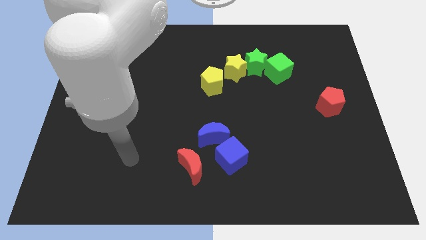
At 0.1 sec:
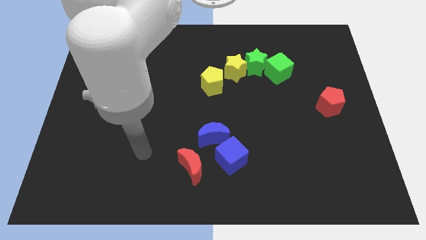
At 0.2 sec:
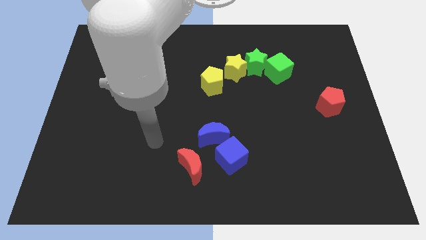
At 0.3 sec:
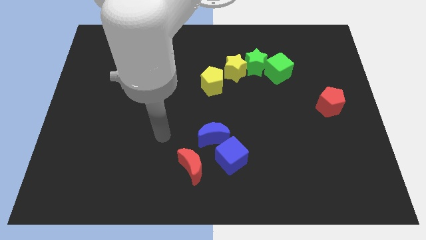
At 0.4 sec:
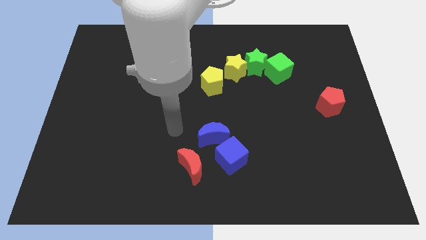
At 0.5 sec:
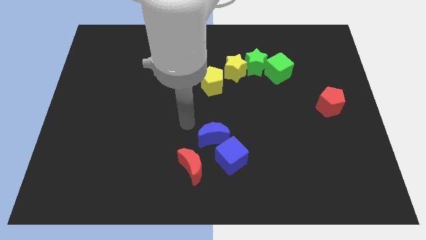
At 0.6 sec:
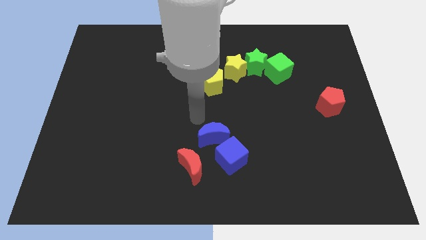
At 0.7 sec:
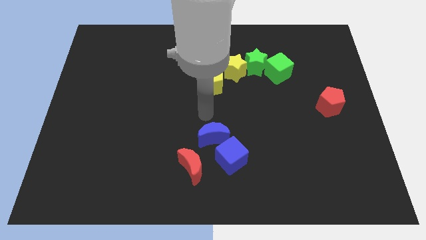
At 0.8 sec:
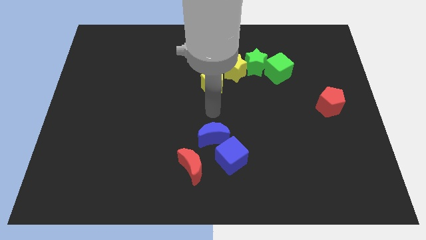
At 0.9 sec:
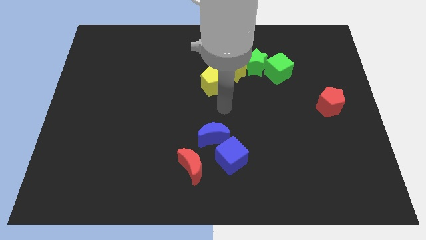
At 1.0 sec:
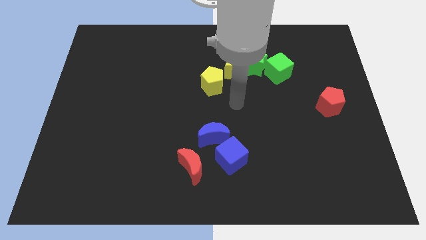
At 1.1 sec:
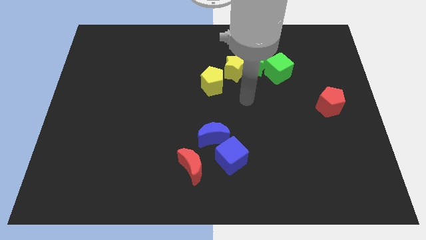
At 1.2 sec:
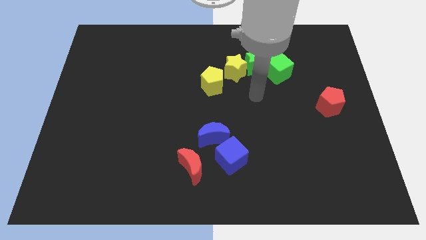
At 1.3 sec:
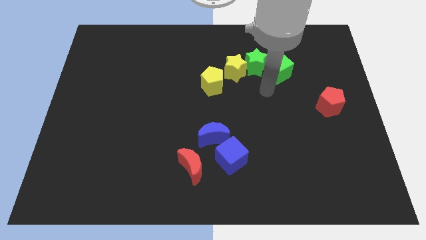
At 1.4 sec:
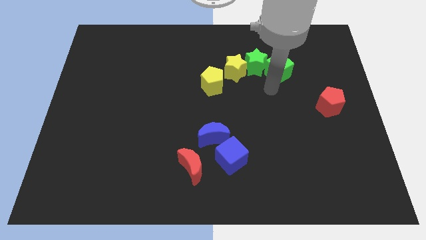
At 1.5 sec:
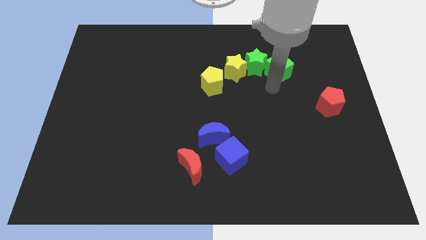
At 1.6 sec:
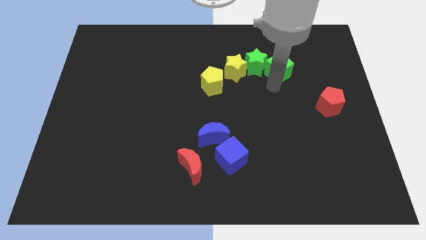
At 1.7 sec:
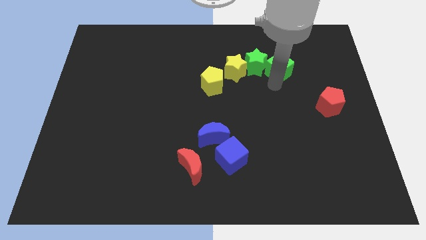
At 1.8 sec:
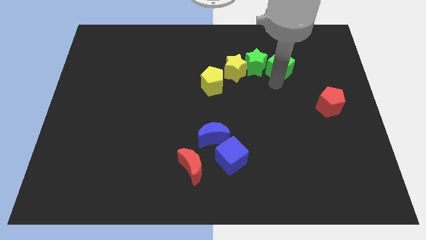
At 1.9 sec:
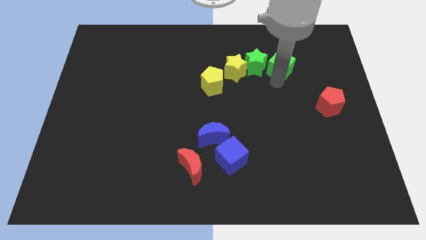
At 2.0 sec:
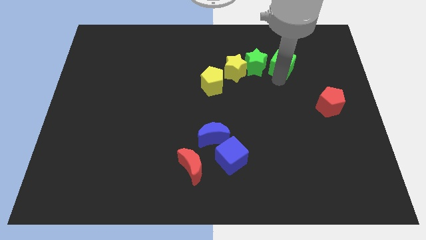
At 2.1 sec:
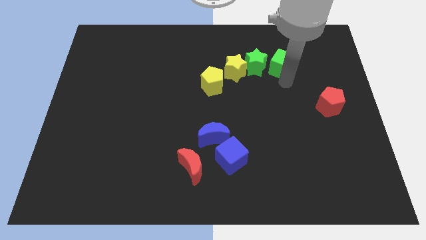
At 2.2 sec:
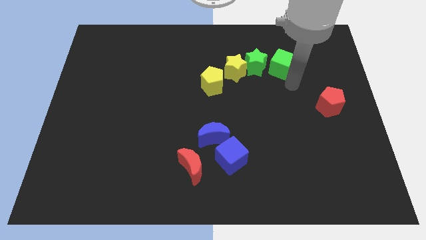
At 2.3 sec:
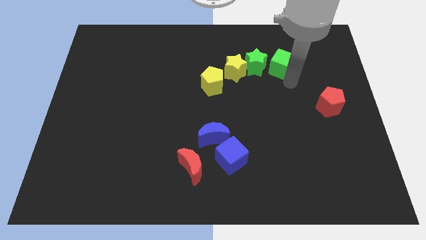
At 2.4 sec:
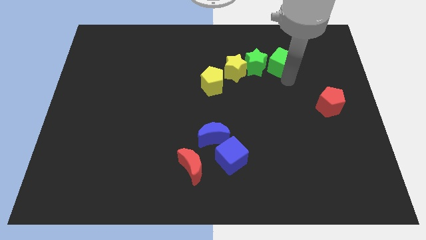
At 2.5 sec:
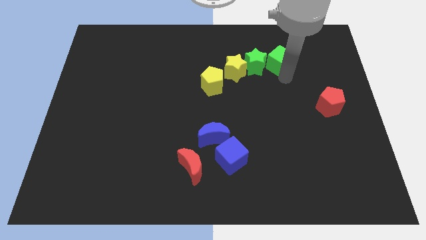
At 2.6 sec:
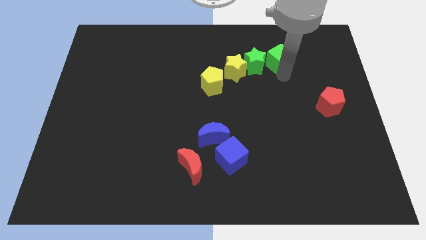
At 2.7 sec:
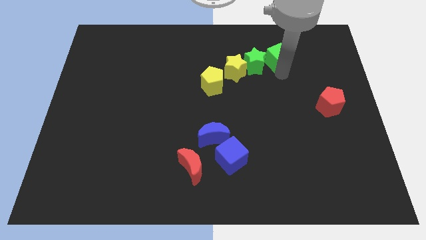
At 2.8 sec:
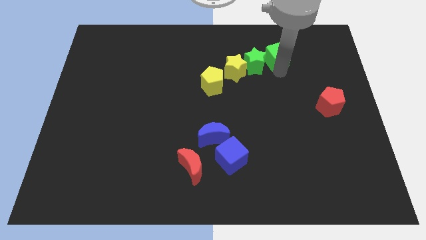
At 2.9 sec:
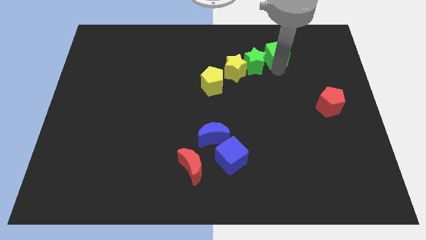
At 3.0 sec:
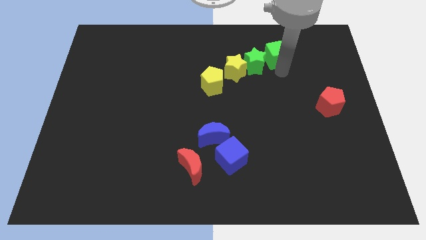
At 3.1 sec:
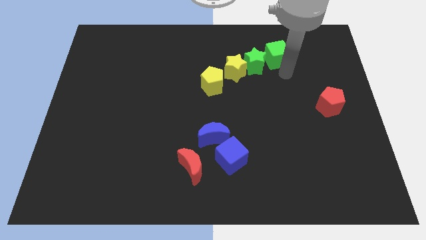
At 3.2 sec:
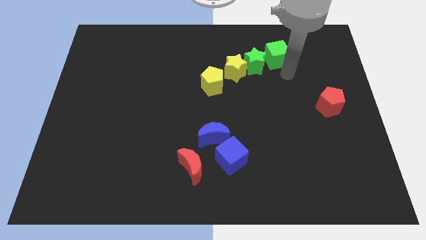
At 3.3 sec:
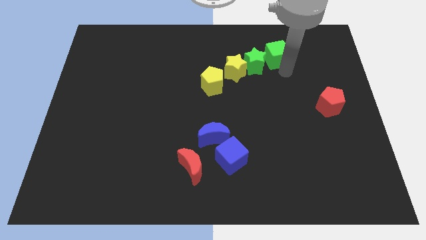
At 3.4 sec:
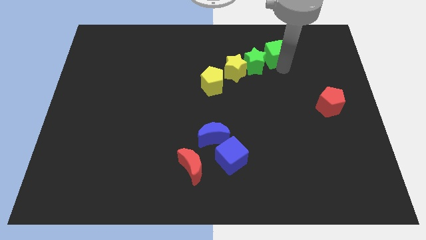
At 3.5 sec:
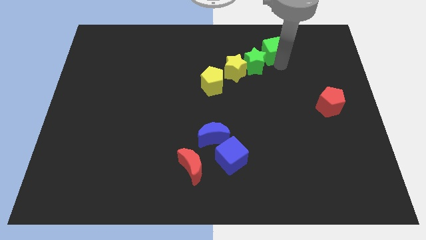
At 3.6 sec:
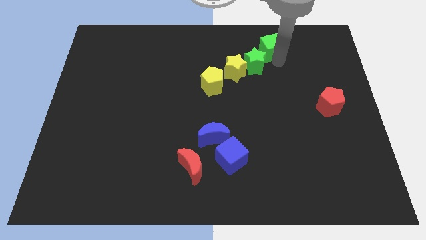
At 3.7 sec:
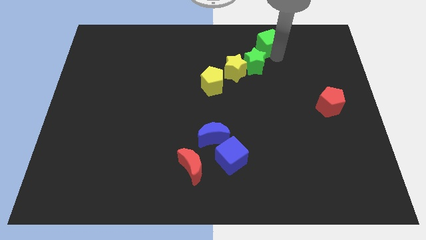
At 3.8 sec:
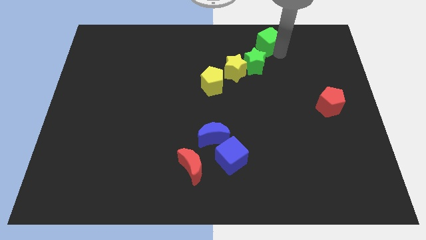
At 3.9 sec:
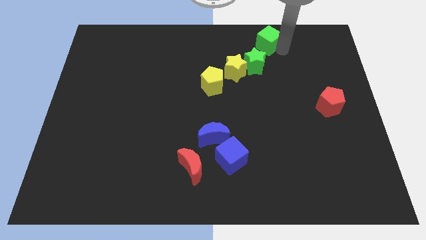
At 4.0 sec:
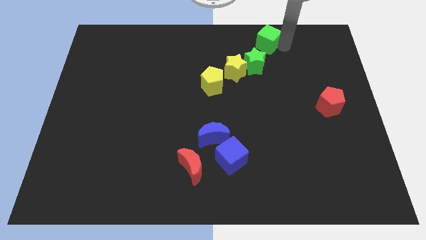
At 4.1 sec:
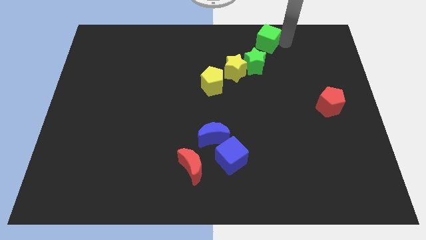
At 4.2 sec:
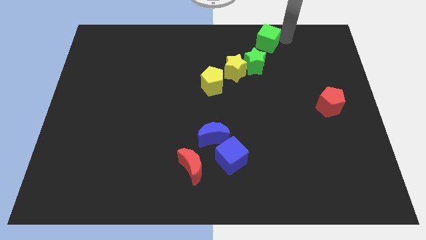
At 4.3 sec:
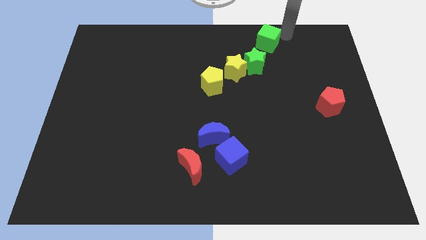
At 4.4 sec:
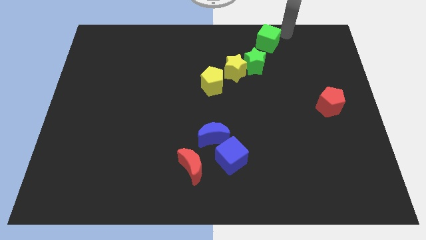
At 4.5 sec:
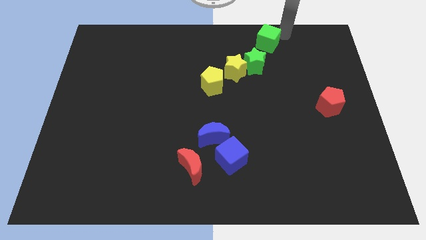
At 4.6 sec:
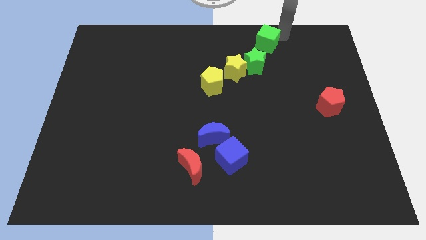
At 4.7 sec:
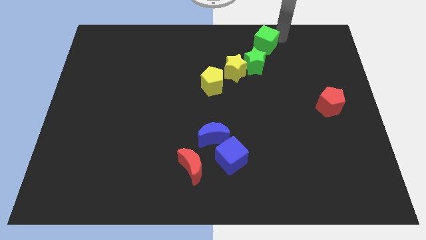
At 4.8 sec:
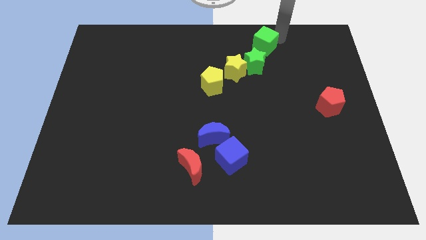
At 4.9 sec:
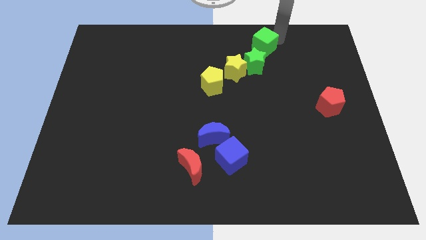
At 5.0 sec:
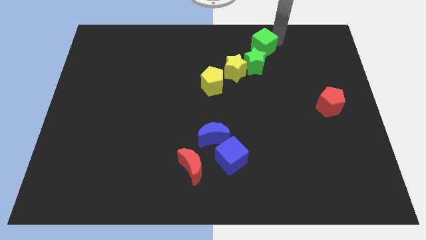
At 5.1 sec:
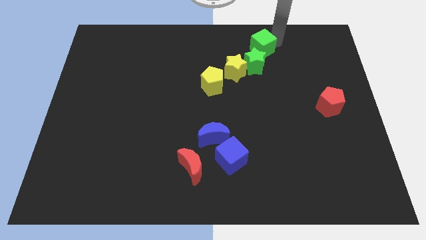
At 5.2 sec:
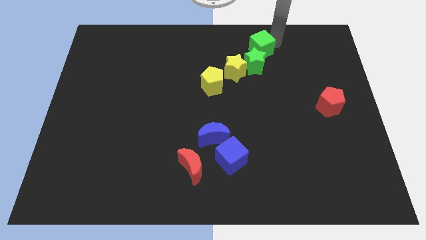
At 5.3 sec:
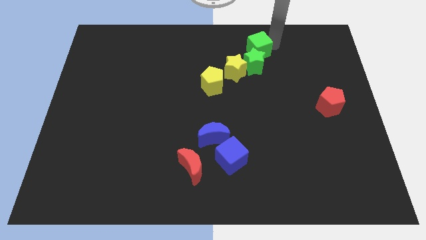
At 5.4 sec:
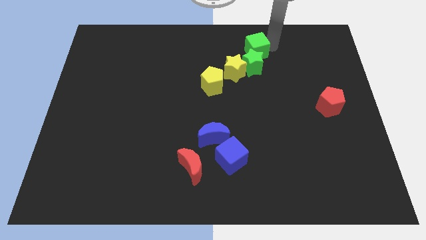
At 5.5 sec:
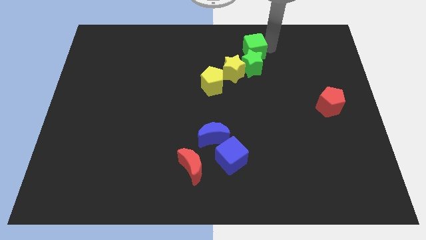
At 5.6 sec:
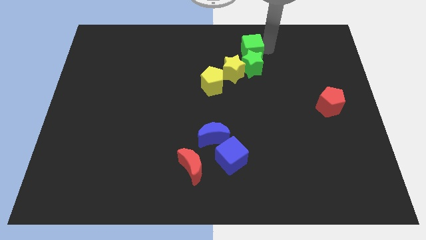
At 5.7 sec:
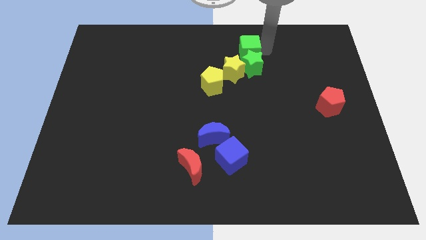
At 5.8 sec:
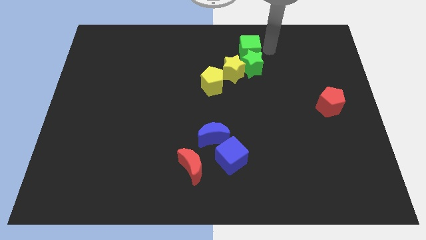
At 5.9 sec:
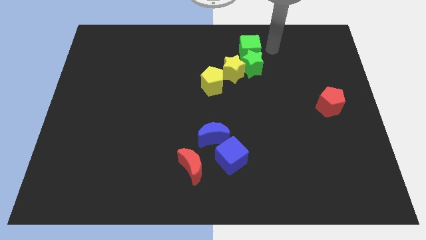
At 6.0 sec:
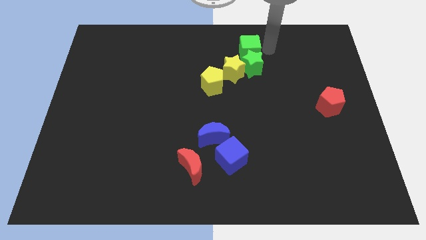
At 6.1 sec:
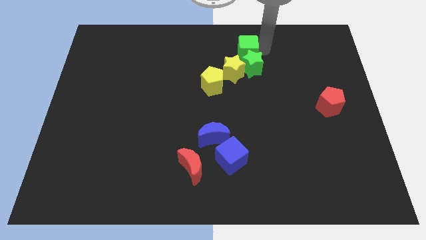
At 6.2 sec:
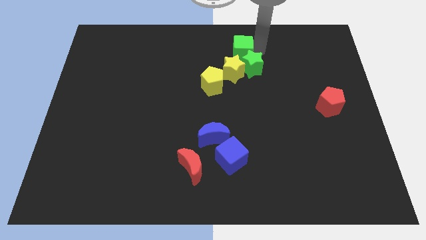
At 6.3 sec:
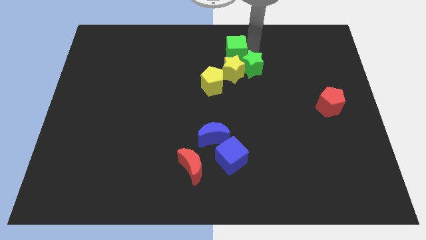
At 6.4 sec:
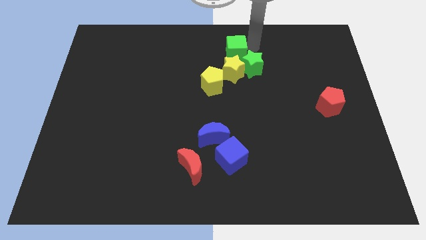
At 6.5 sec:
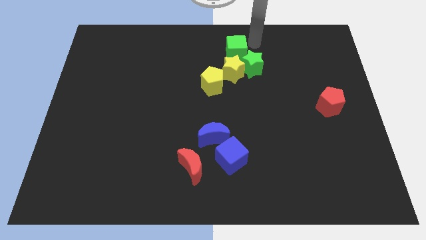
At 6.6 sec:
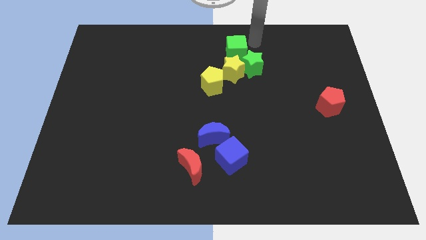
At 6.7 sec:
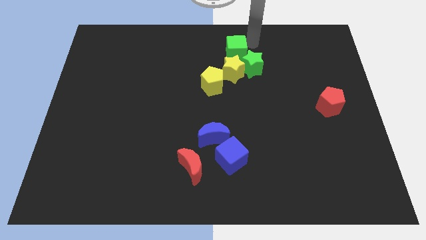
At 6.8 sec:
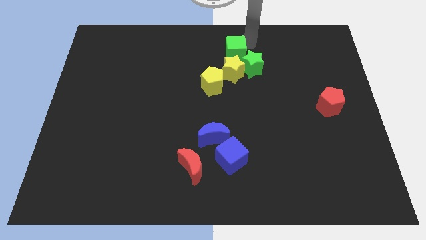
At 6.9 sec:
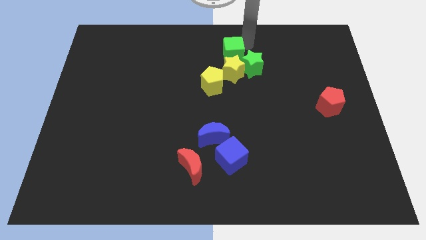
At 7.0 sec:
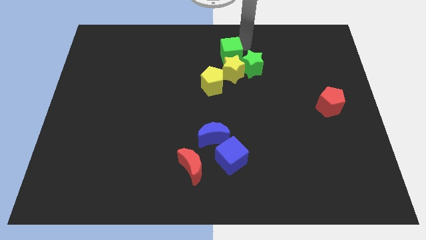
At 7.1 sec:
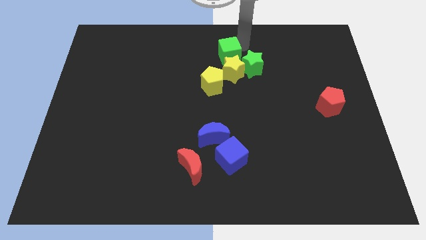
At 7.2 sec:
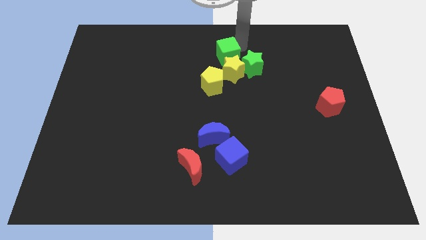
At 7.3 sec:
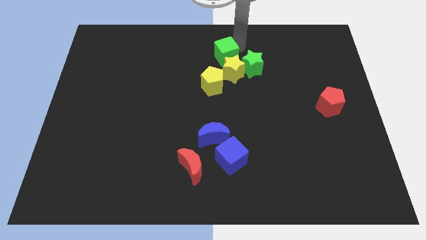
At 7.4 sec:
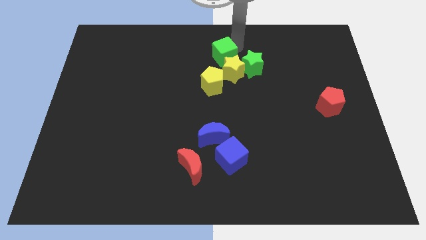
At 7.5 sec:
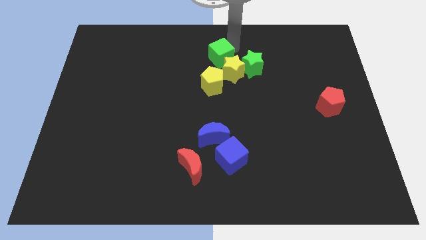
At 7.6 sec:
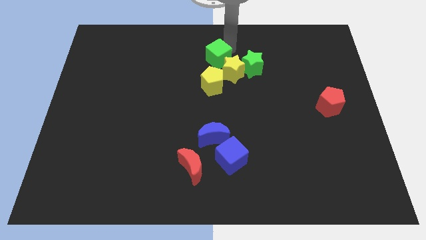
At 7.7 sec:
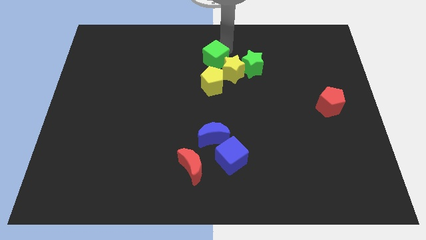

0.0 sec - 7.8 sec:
move the green cube left of the yellow star
